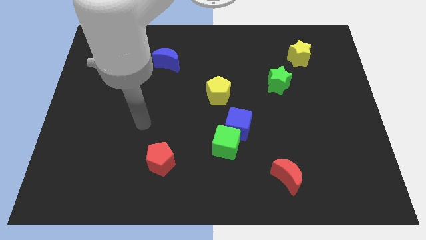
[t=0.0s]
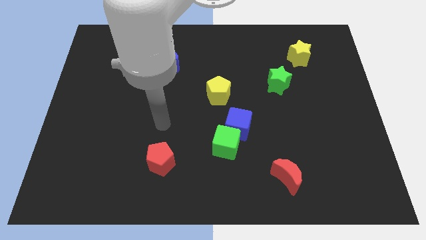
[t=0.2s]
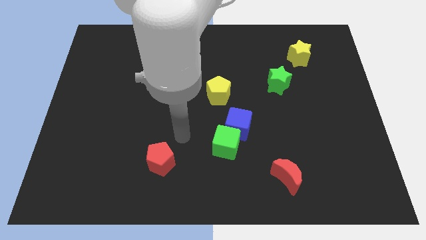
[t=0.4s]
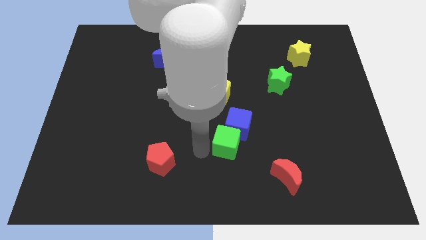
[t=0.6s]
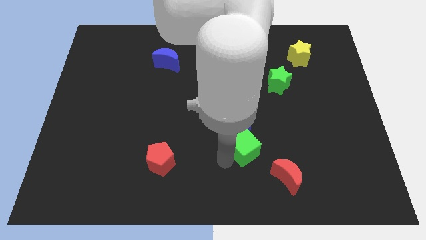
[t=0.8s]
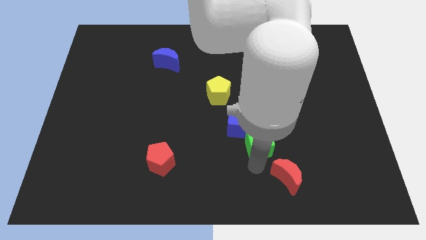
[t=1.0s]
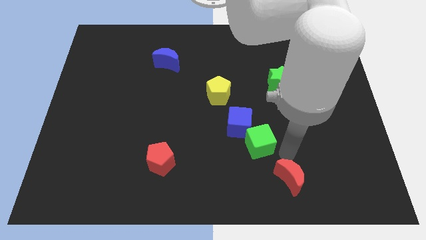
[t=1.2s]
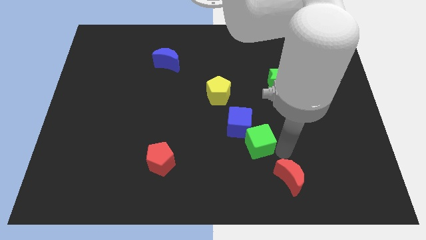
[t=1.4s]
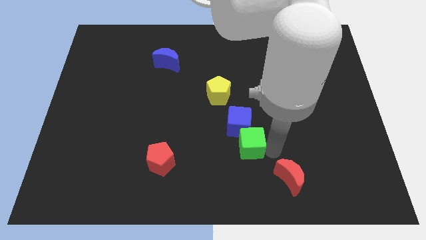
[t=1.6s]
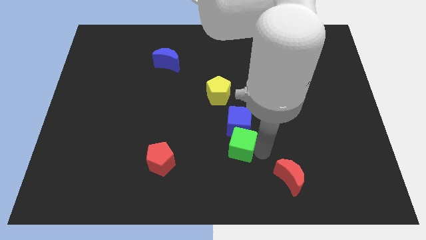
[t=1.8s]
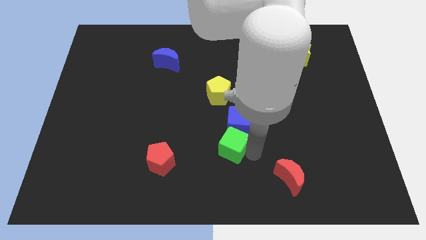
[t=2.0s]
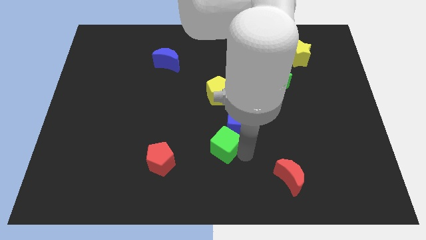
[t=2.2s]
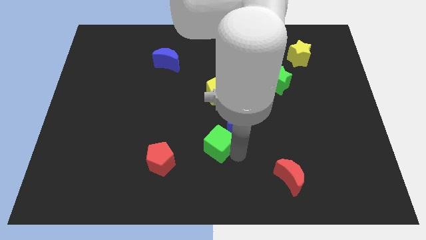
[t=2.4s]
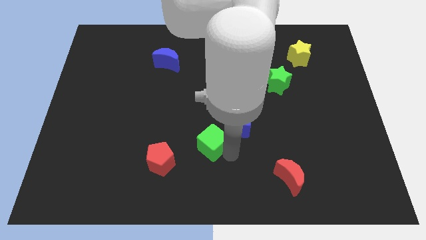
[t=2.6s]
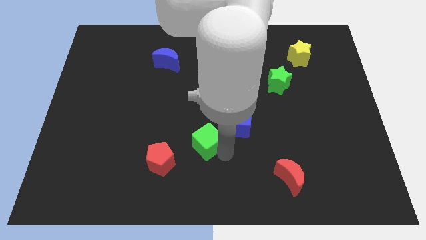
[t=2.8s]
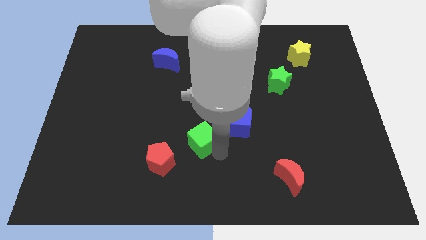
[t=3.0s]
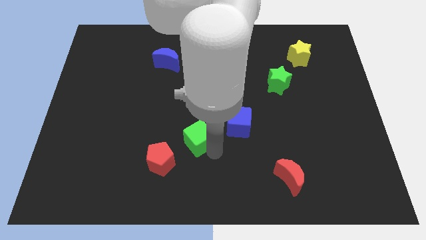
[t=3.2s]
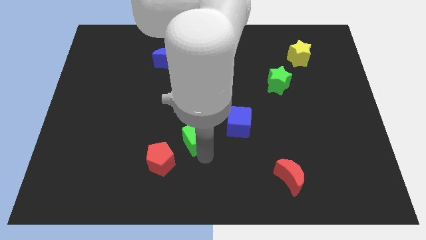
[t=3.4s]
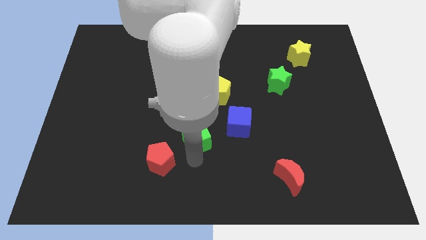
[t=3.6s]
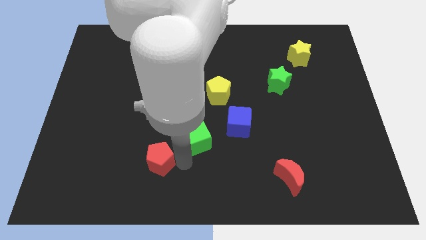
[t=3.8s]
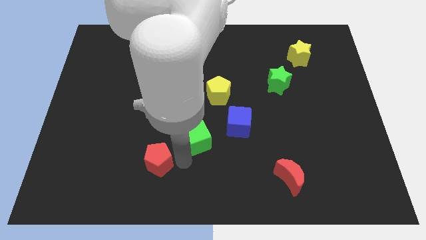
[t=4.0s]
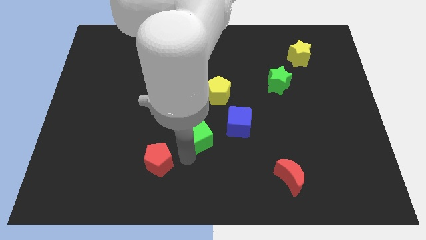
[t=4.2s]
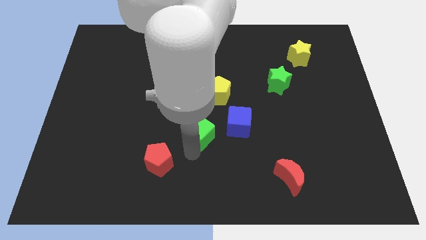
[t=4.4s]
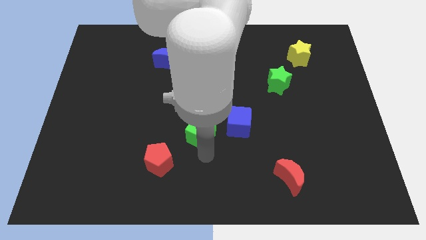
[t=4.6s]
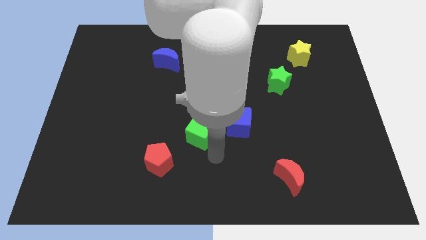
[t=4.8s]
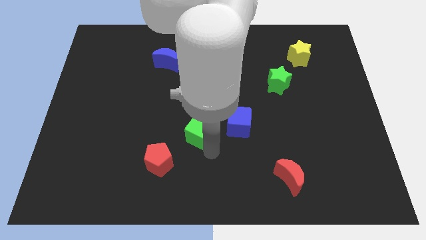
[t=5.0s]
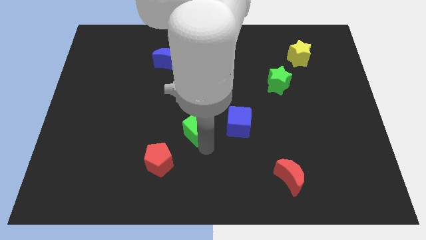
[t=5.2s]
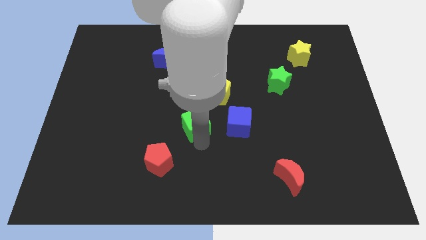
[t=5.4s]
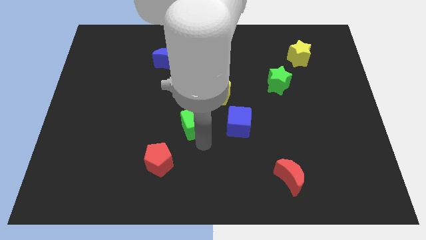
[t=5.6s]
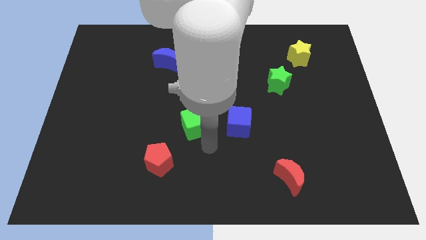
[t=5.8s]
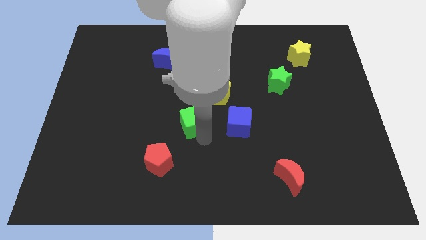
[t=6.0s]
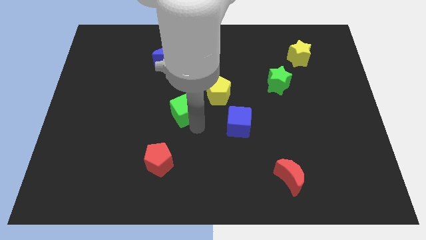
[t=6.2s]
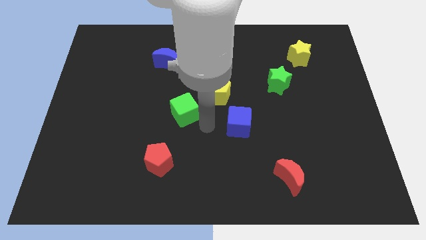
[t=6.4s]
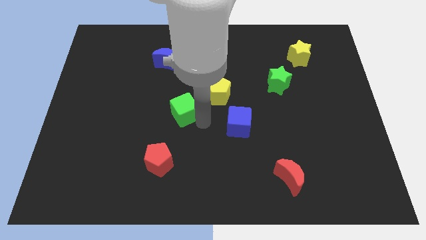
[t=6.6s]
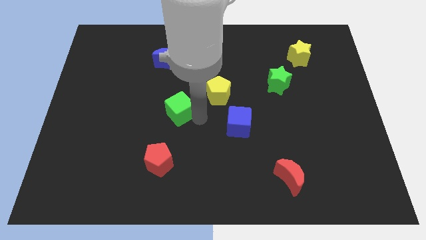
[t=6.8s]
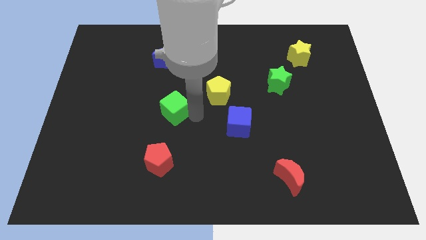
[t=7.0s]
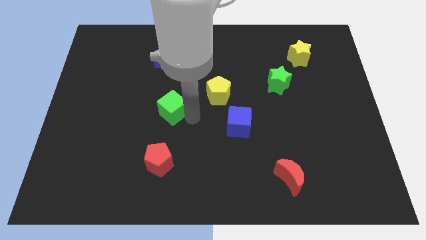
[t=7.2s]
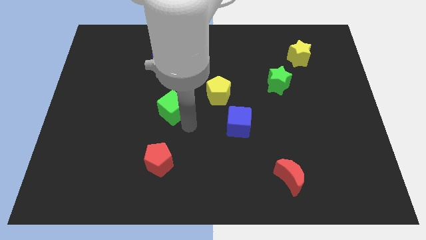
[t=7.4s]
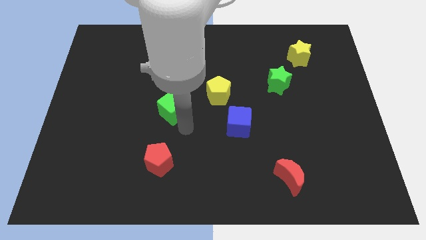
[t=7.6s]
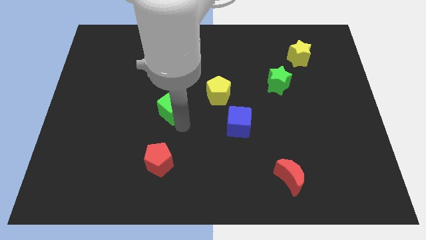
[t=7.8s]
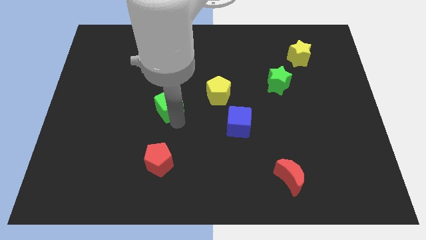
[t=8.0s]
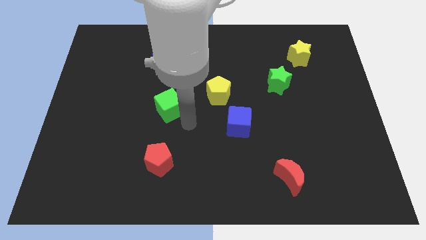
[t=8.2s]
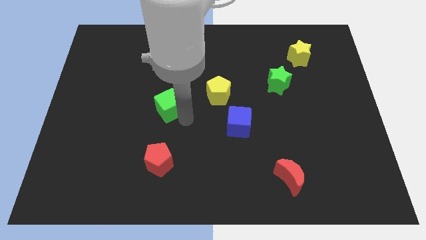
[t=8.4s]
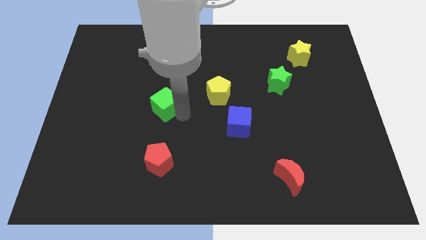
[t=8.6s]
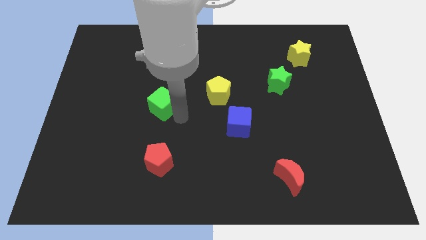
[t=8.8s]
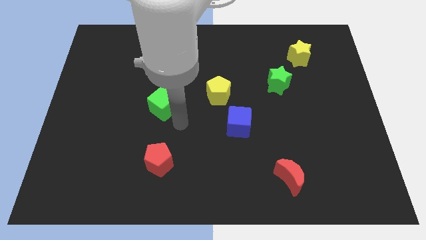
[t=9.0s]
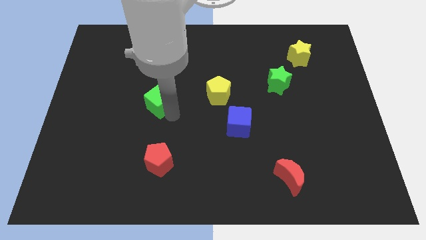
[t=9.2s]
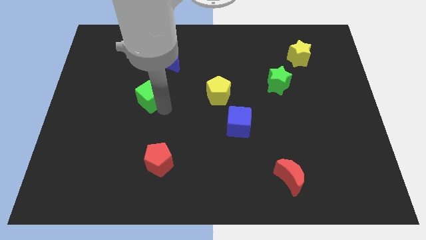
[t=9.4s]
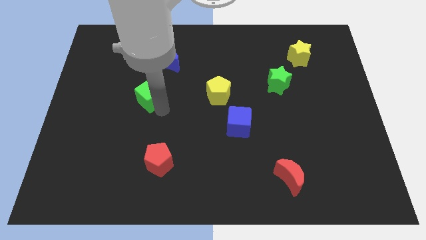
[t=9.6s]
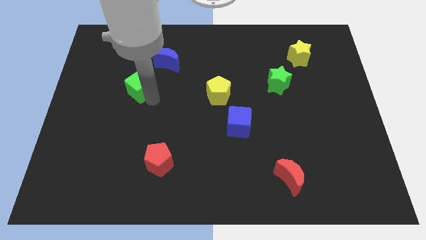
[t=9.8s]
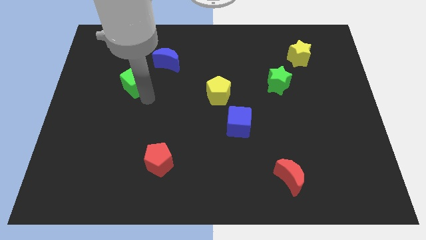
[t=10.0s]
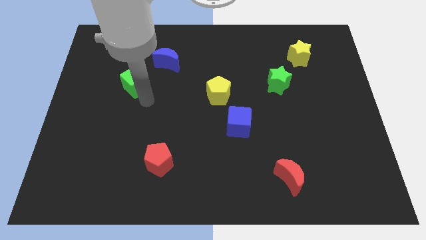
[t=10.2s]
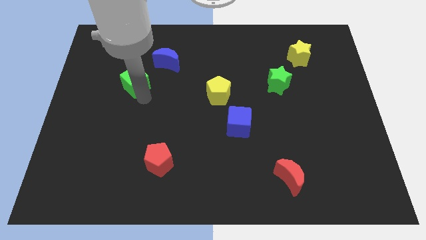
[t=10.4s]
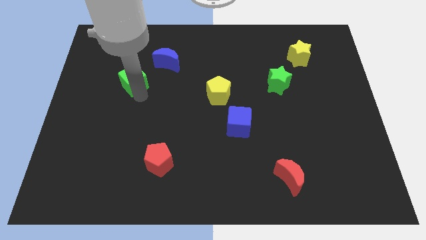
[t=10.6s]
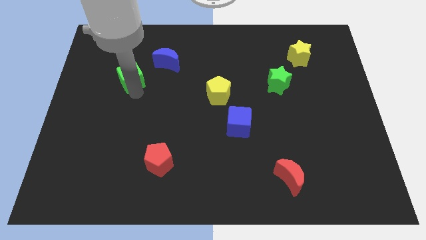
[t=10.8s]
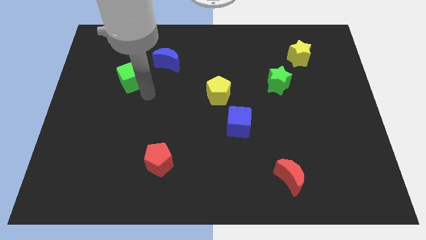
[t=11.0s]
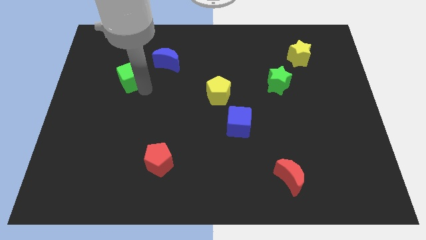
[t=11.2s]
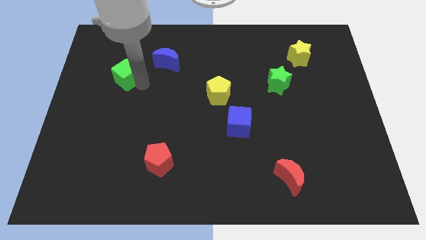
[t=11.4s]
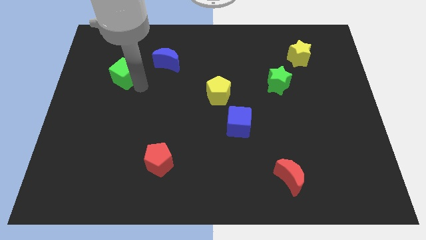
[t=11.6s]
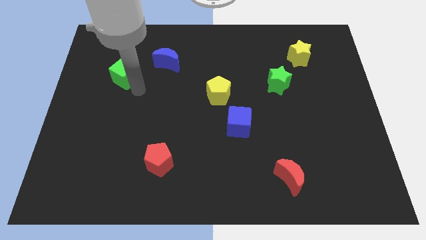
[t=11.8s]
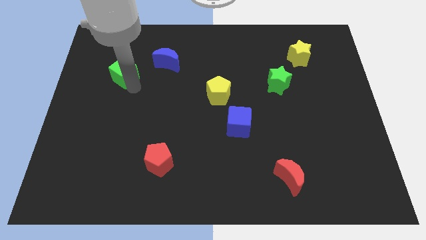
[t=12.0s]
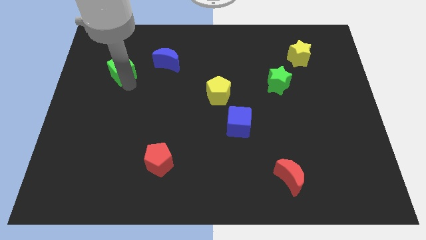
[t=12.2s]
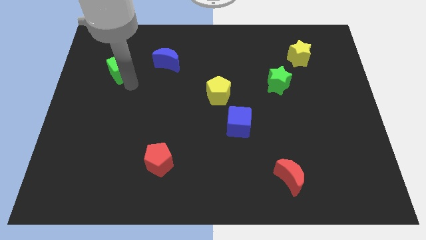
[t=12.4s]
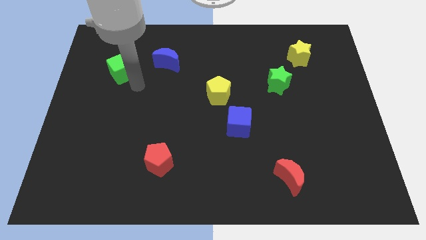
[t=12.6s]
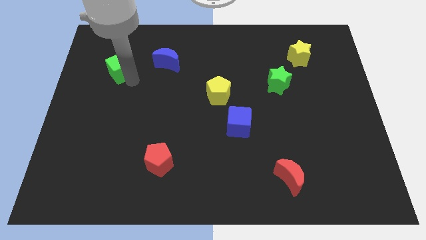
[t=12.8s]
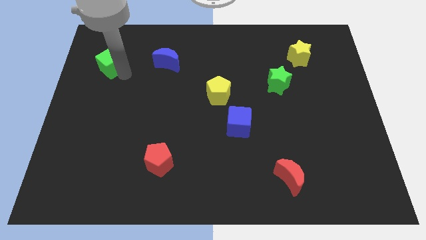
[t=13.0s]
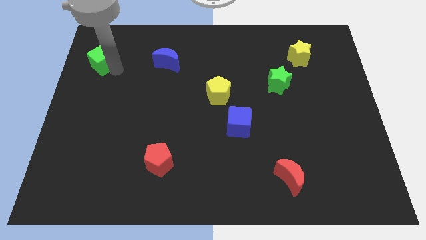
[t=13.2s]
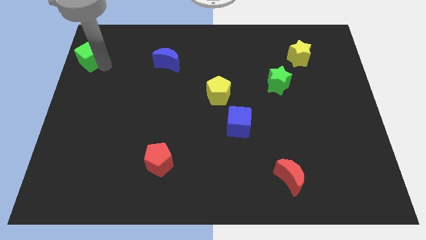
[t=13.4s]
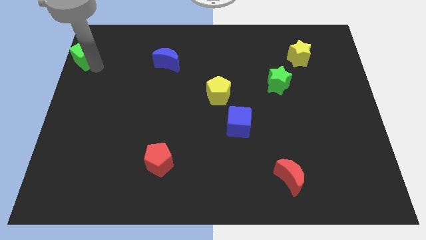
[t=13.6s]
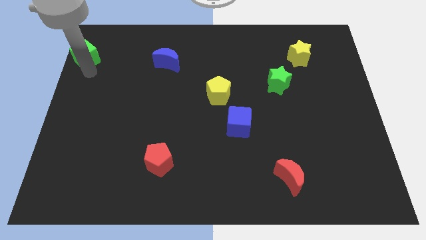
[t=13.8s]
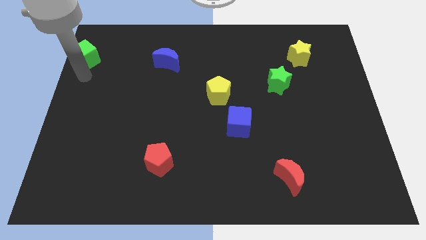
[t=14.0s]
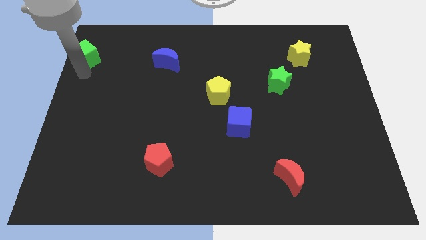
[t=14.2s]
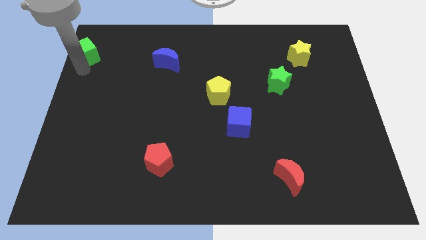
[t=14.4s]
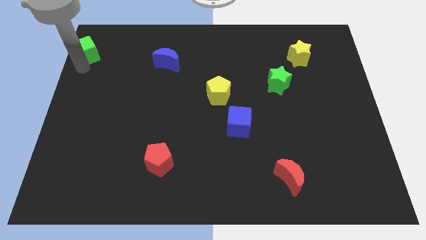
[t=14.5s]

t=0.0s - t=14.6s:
slide the green cube to the top left corner
